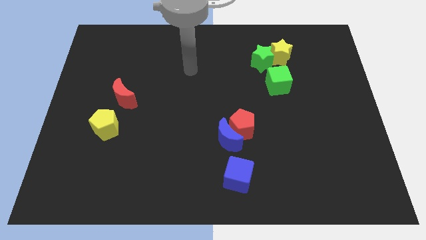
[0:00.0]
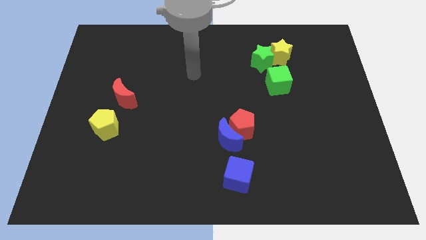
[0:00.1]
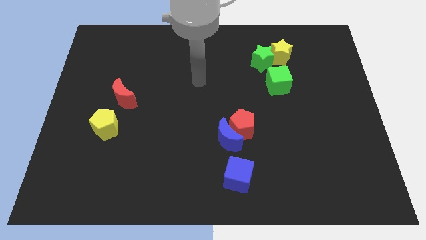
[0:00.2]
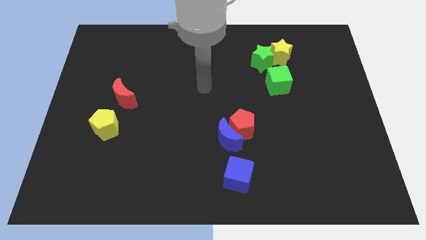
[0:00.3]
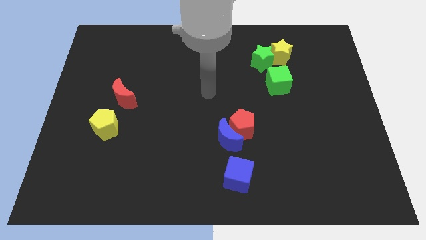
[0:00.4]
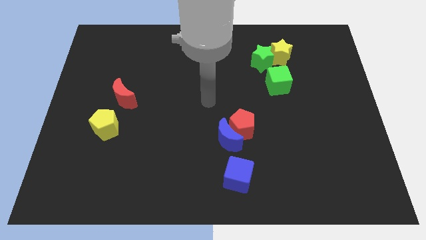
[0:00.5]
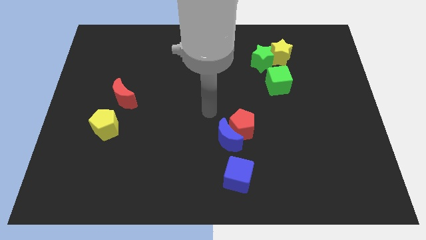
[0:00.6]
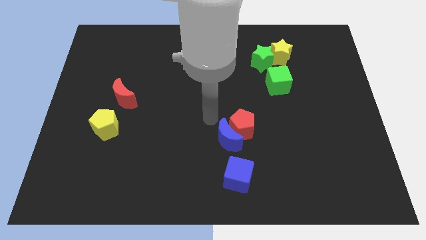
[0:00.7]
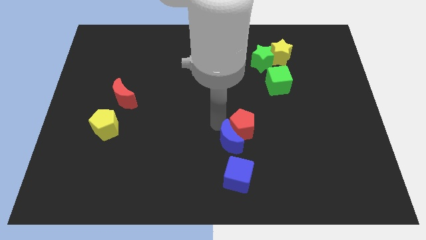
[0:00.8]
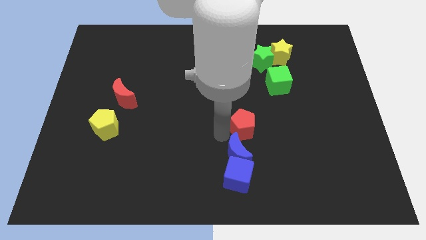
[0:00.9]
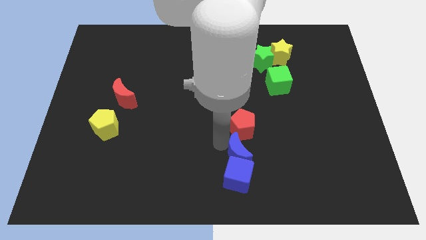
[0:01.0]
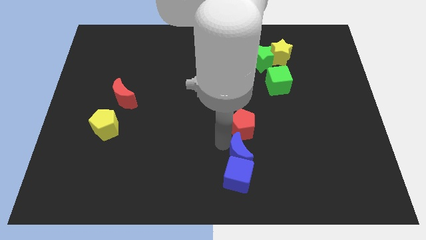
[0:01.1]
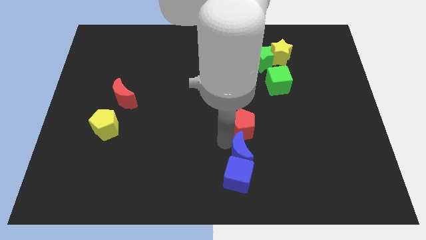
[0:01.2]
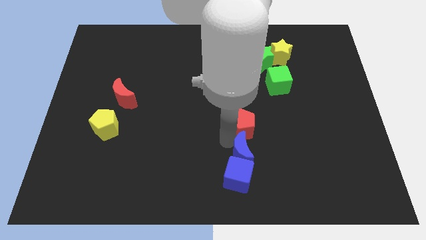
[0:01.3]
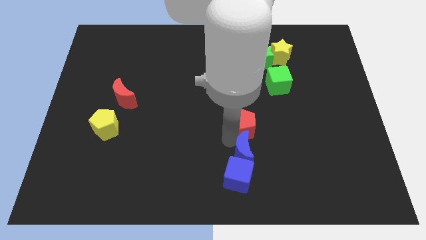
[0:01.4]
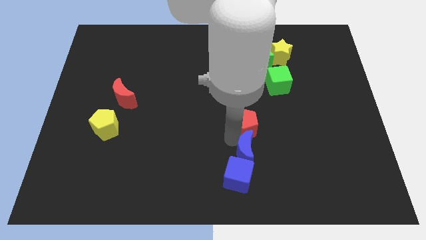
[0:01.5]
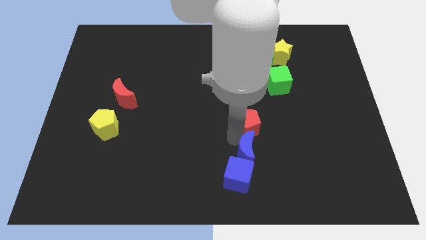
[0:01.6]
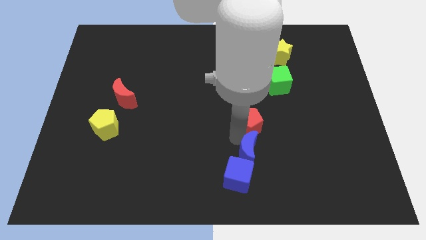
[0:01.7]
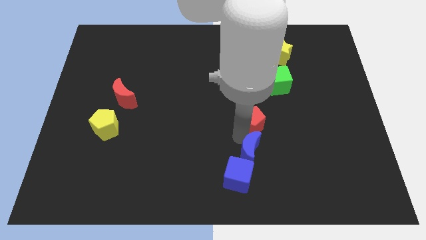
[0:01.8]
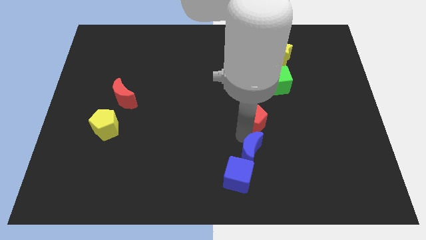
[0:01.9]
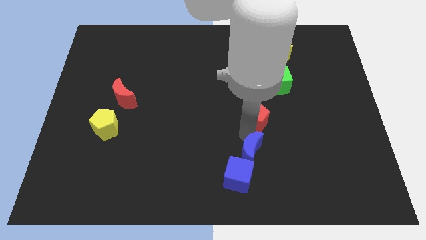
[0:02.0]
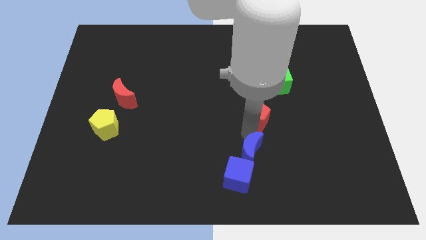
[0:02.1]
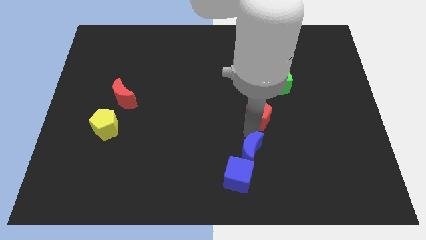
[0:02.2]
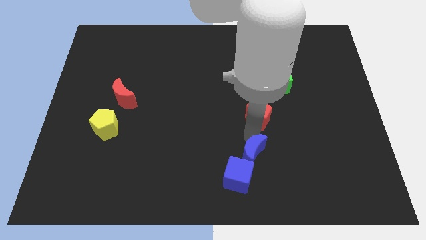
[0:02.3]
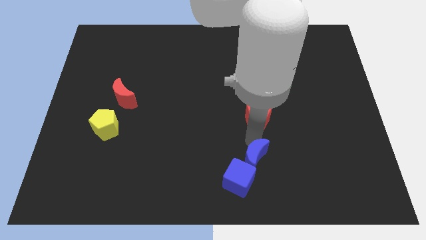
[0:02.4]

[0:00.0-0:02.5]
separate the red pentagon from the blue moon

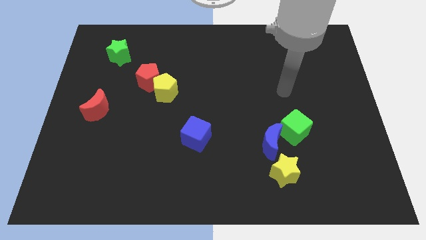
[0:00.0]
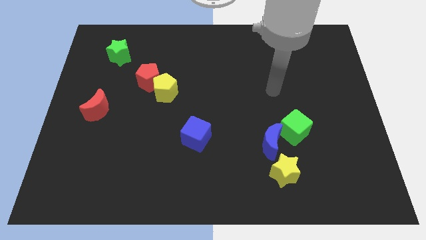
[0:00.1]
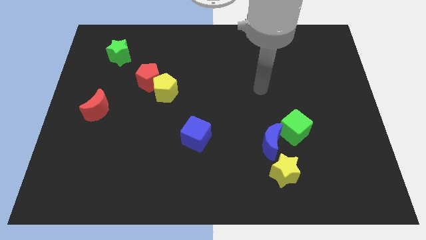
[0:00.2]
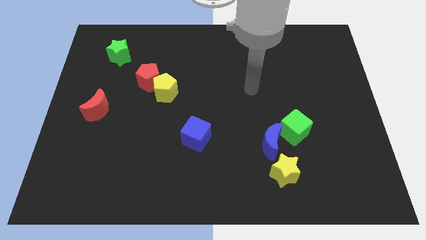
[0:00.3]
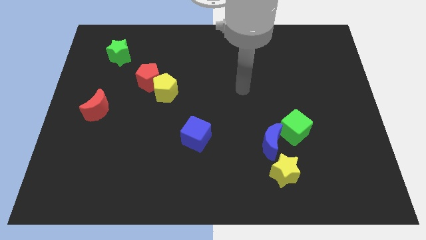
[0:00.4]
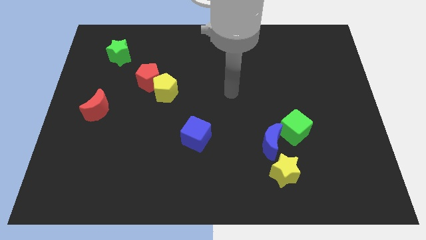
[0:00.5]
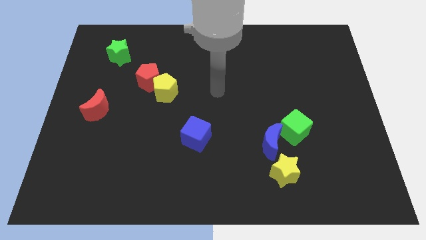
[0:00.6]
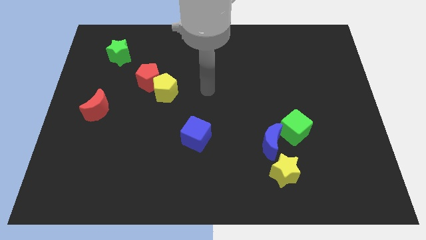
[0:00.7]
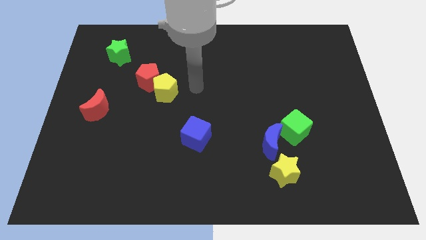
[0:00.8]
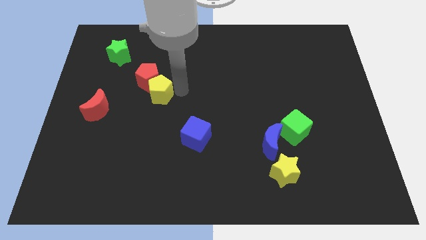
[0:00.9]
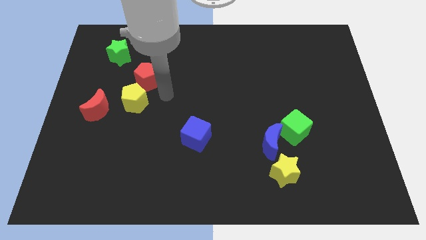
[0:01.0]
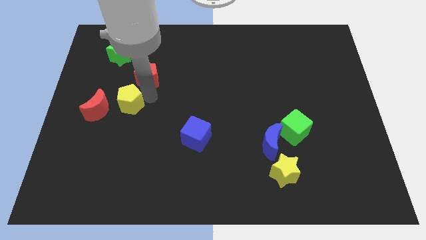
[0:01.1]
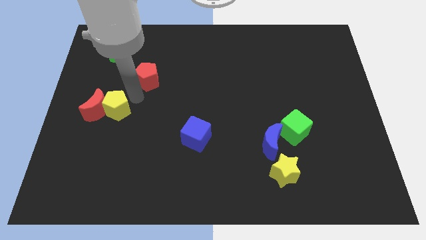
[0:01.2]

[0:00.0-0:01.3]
pull the red pentagon apart from the yellow pentagon

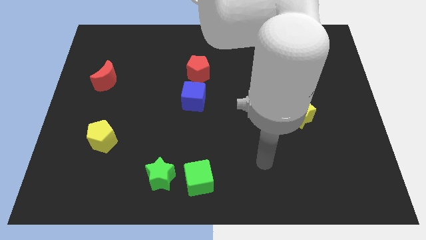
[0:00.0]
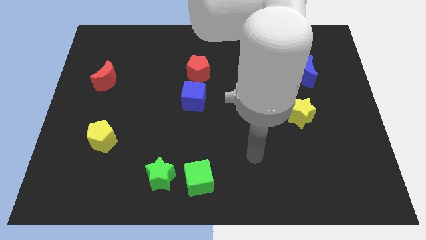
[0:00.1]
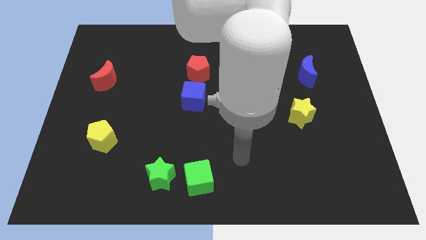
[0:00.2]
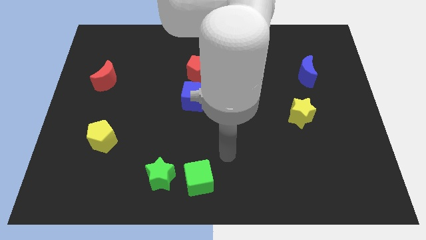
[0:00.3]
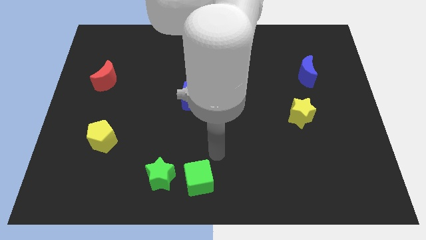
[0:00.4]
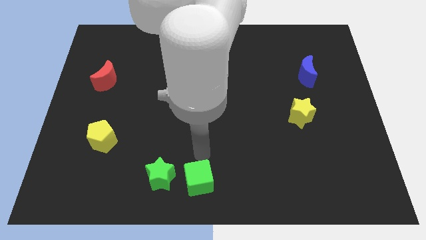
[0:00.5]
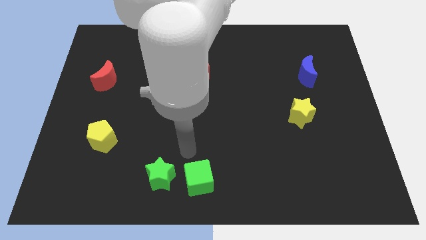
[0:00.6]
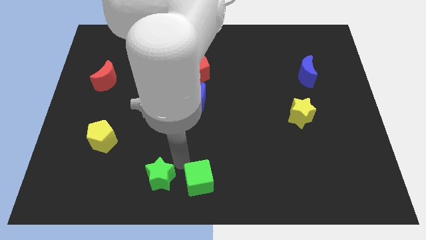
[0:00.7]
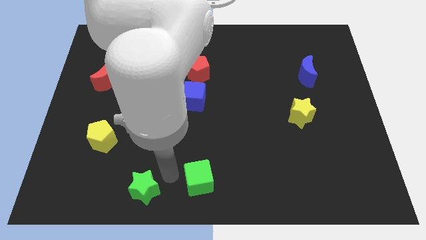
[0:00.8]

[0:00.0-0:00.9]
pull the green cube apart from the green star

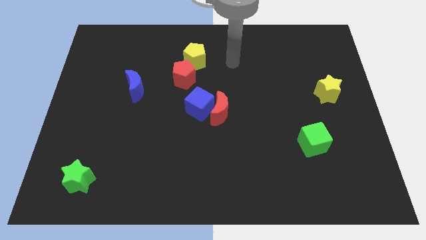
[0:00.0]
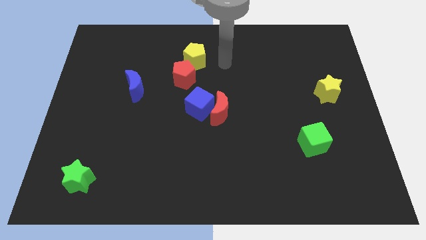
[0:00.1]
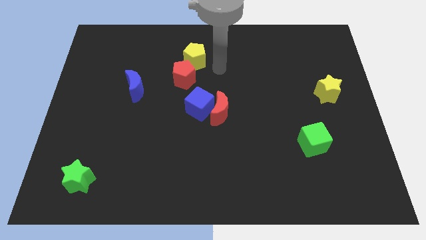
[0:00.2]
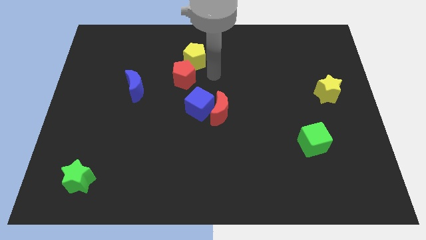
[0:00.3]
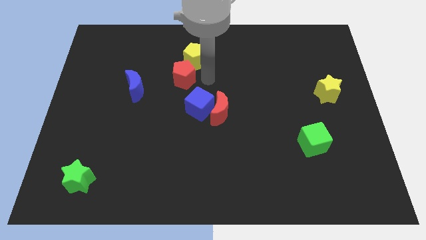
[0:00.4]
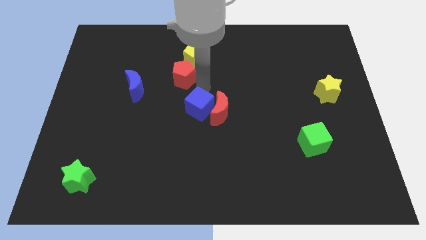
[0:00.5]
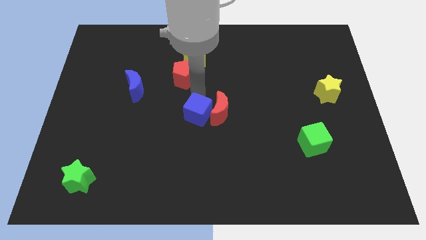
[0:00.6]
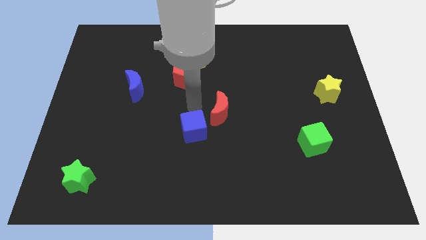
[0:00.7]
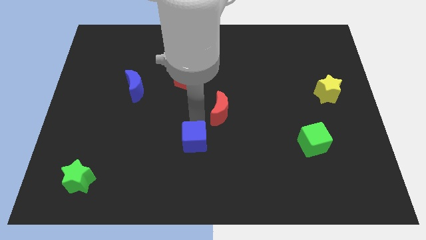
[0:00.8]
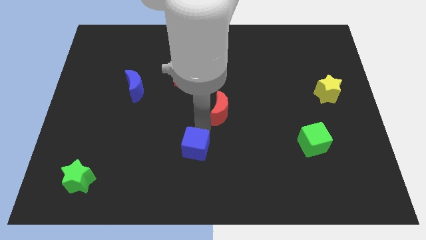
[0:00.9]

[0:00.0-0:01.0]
move the red moon away from the blue cube

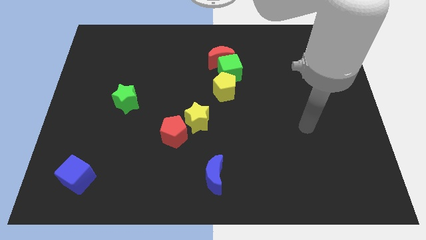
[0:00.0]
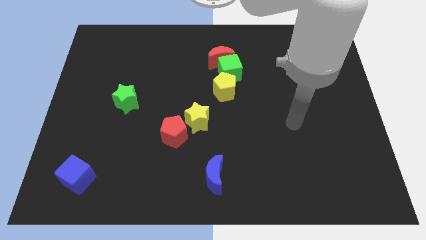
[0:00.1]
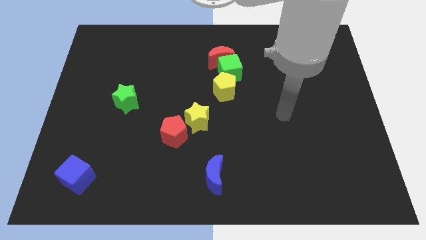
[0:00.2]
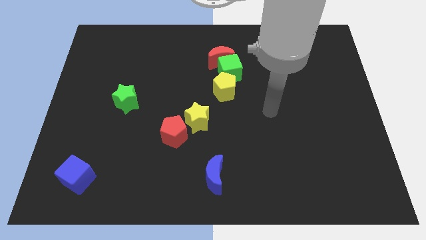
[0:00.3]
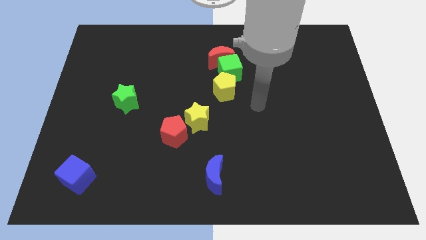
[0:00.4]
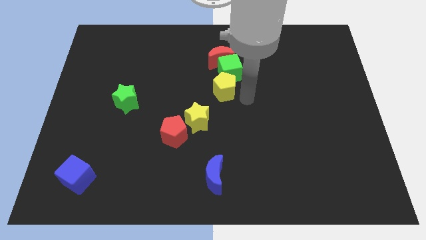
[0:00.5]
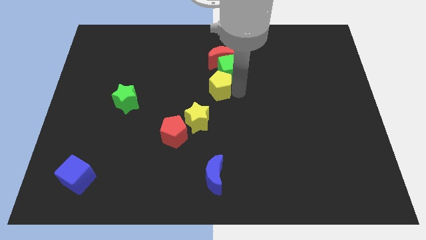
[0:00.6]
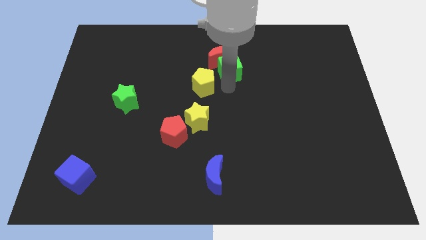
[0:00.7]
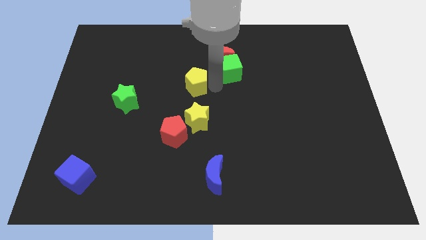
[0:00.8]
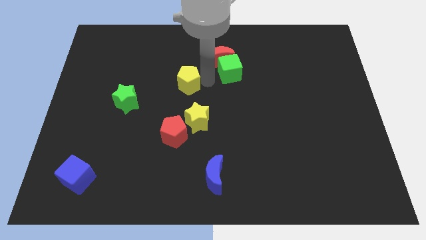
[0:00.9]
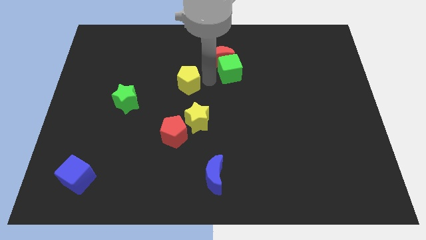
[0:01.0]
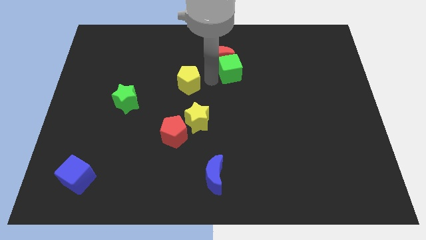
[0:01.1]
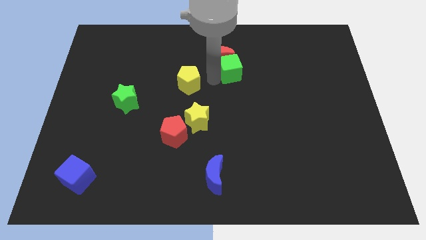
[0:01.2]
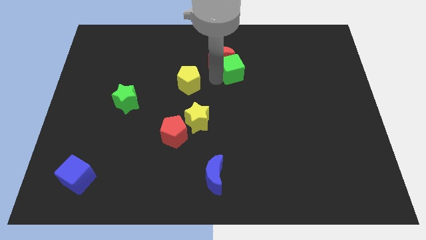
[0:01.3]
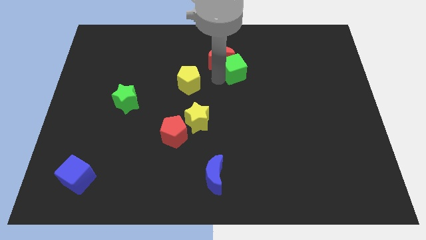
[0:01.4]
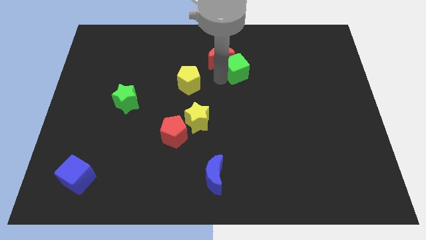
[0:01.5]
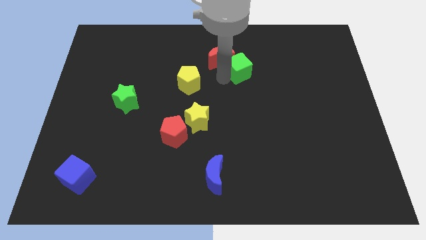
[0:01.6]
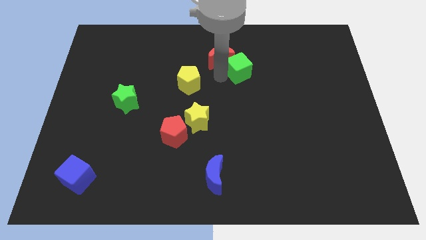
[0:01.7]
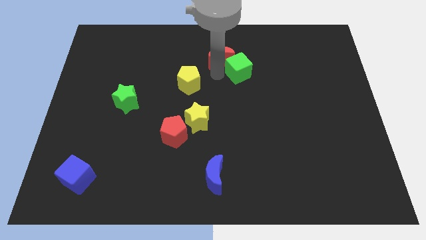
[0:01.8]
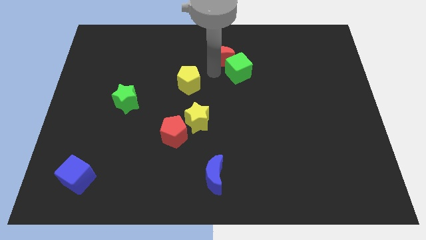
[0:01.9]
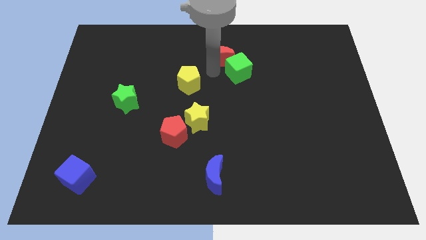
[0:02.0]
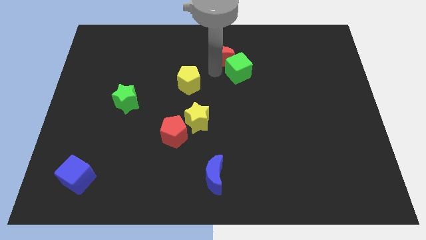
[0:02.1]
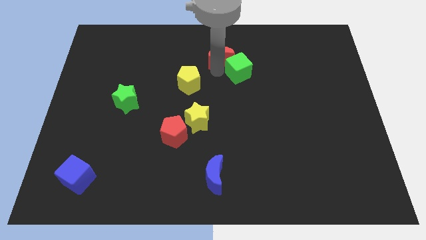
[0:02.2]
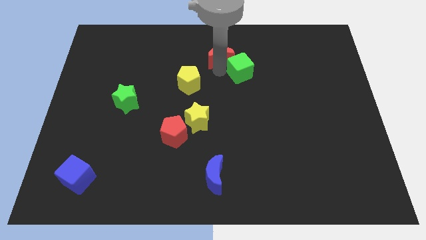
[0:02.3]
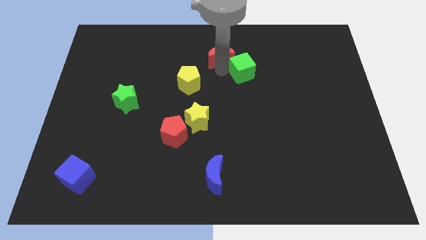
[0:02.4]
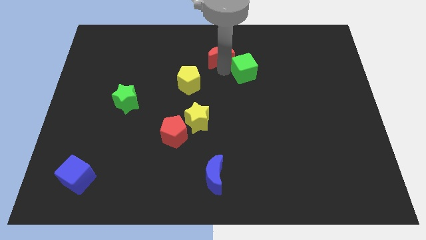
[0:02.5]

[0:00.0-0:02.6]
move the green cube away from the red moon and yellow pentagon

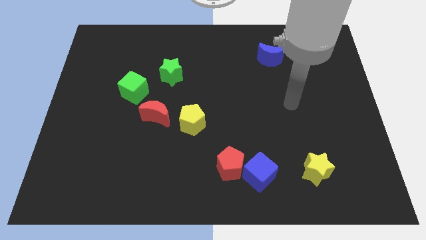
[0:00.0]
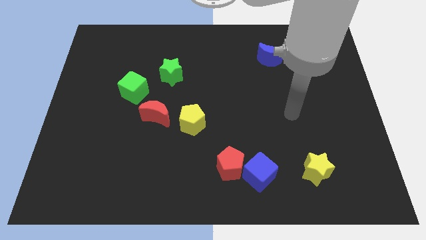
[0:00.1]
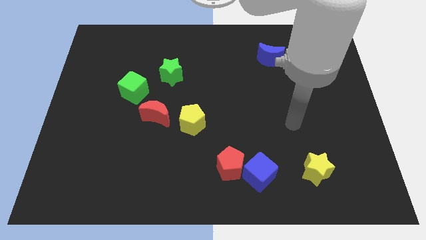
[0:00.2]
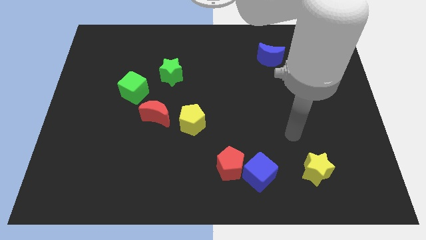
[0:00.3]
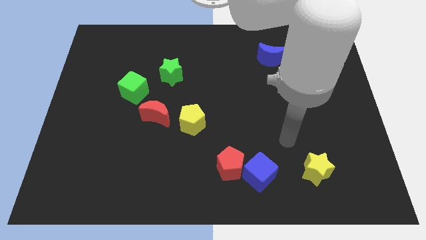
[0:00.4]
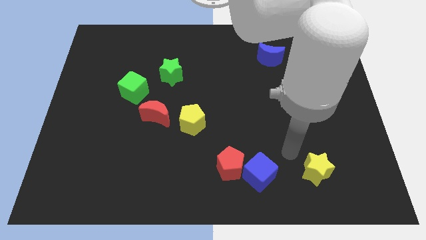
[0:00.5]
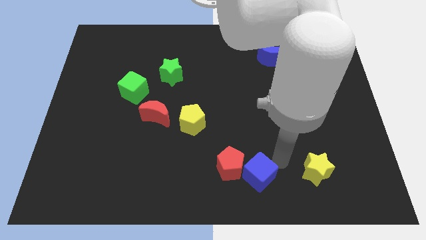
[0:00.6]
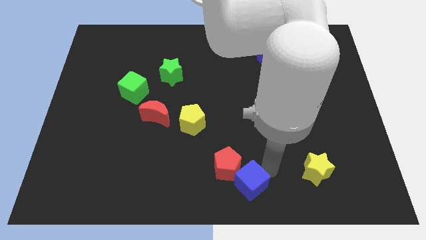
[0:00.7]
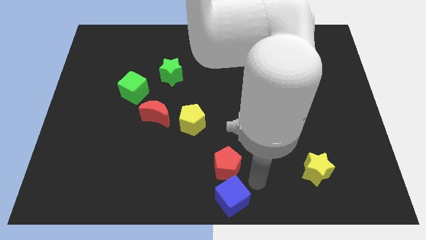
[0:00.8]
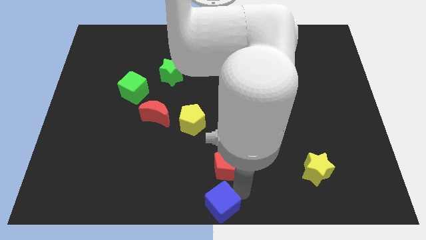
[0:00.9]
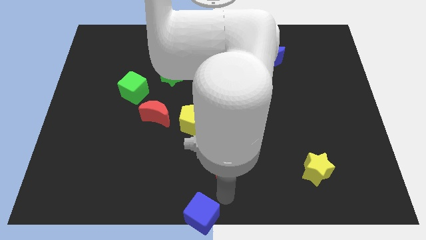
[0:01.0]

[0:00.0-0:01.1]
move the red pentagon away from the blue cube
